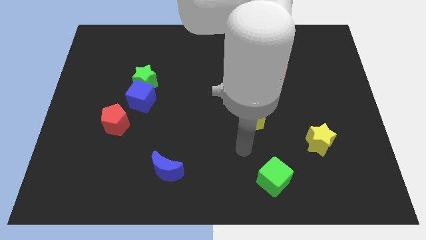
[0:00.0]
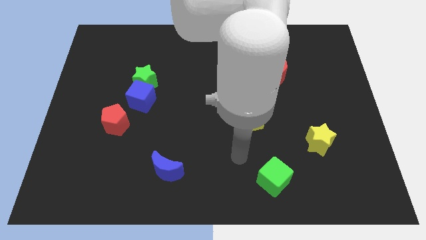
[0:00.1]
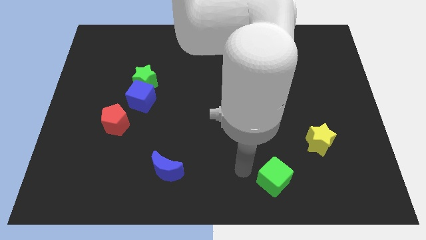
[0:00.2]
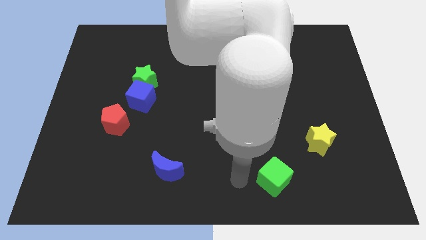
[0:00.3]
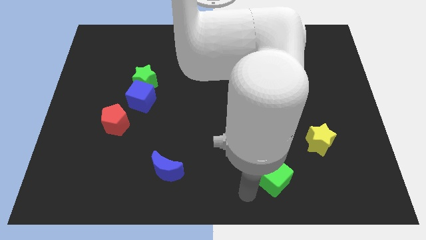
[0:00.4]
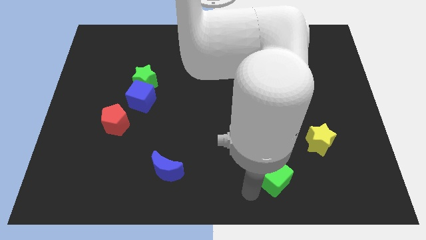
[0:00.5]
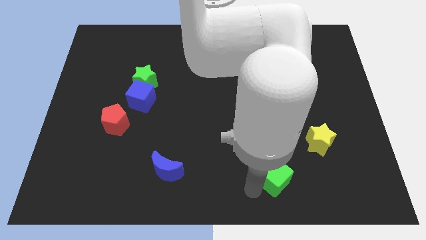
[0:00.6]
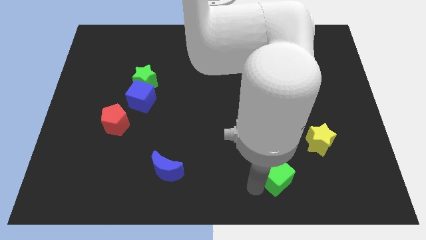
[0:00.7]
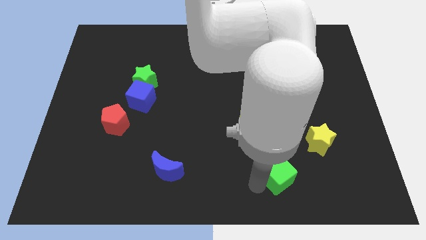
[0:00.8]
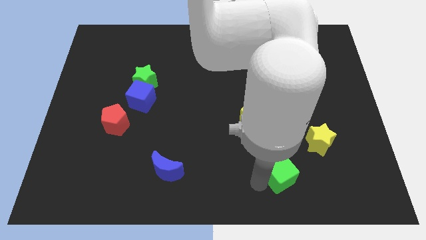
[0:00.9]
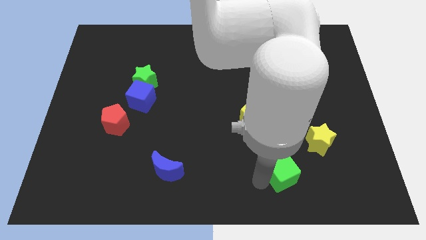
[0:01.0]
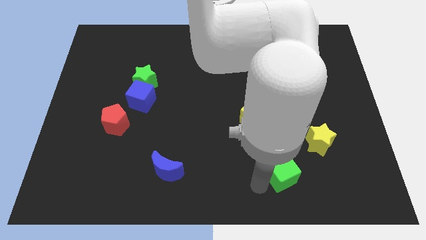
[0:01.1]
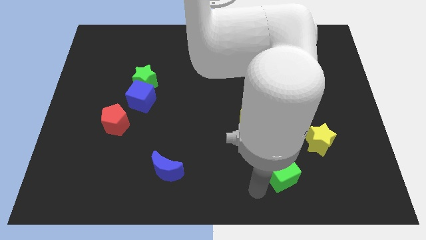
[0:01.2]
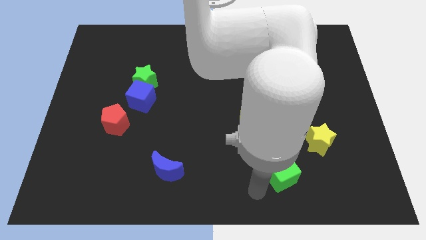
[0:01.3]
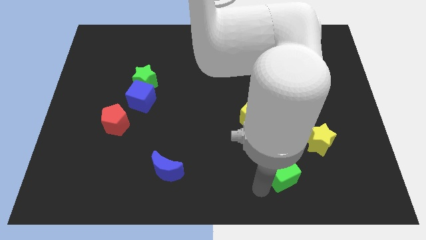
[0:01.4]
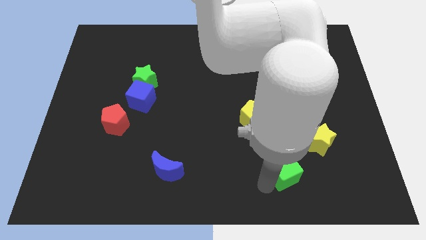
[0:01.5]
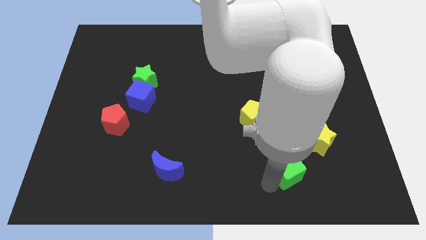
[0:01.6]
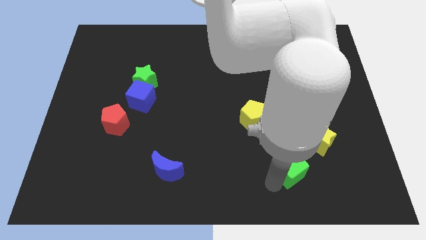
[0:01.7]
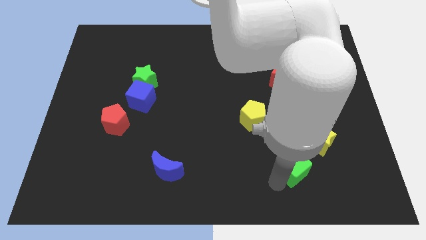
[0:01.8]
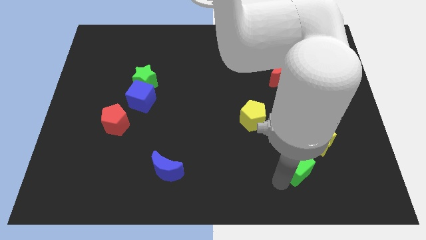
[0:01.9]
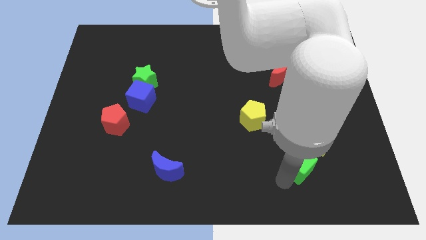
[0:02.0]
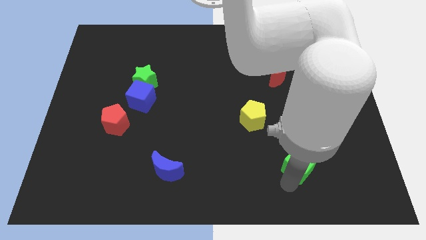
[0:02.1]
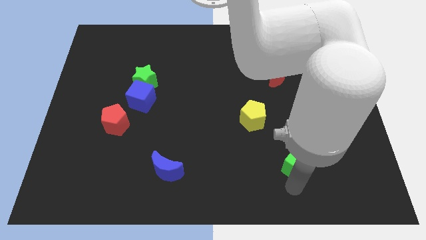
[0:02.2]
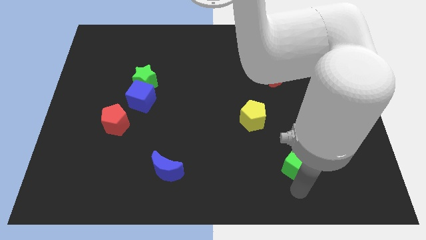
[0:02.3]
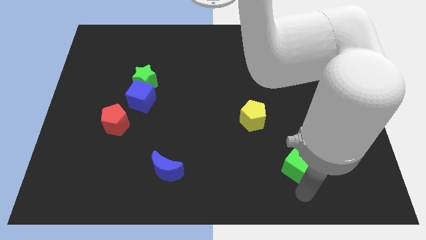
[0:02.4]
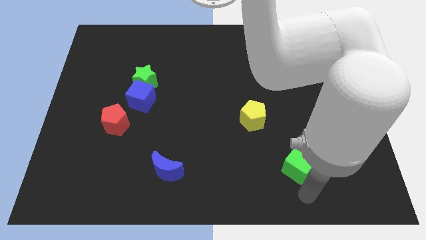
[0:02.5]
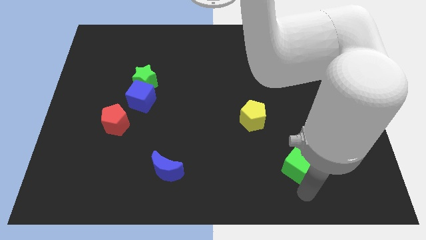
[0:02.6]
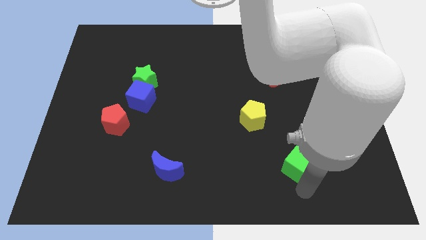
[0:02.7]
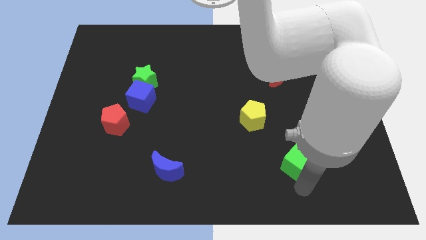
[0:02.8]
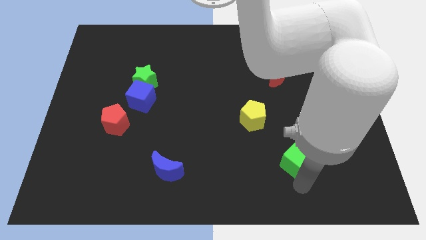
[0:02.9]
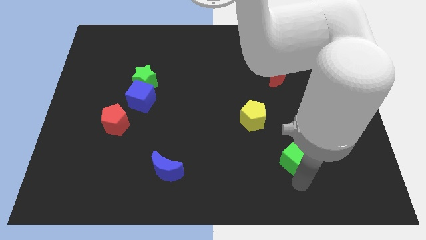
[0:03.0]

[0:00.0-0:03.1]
slide the green cube slightly up and to the right diagonally

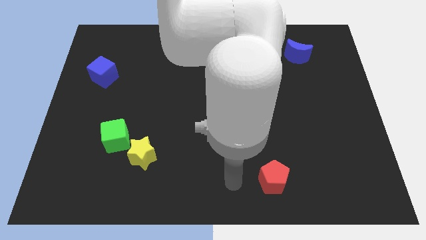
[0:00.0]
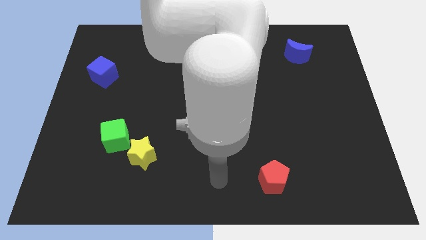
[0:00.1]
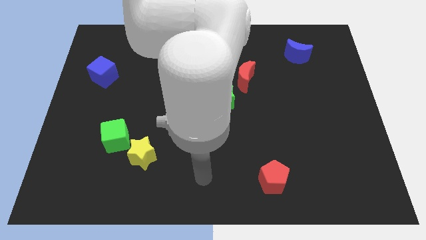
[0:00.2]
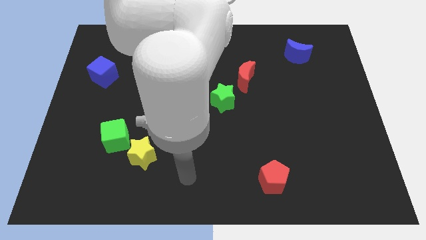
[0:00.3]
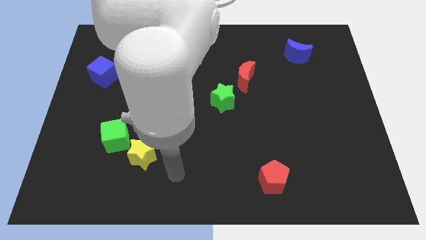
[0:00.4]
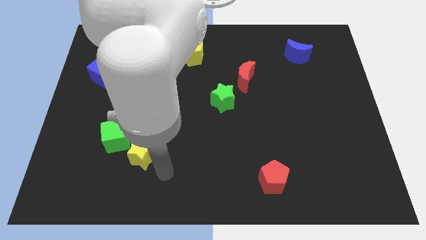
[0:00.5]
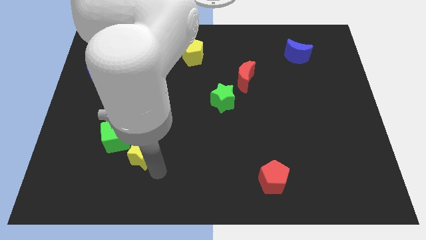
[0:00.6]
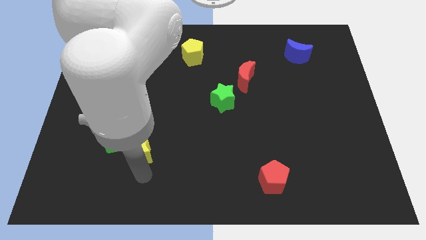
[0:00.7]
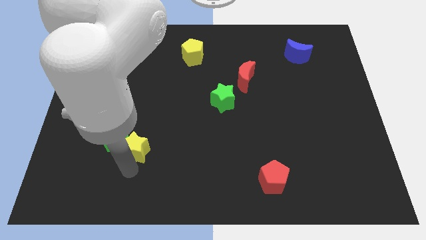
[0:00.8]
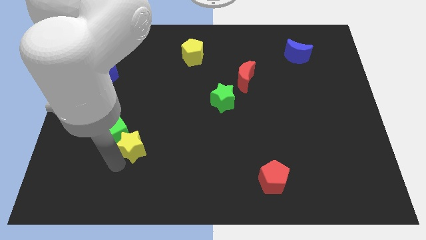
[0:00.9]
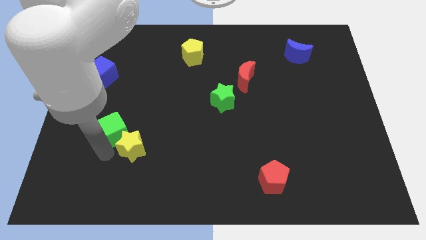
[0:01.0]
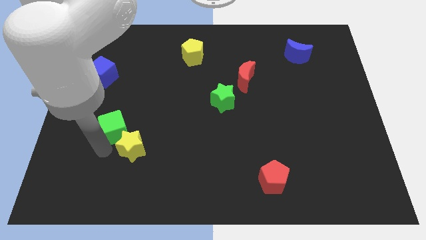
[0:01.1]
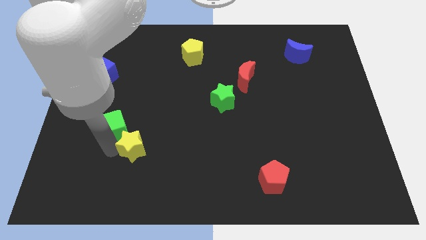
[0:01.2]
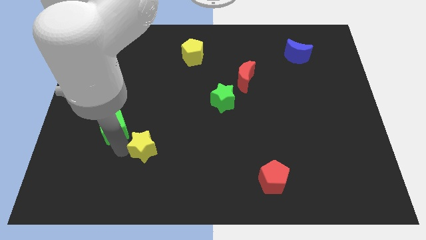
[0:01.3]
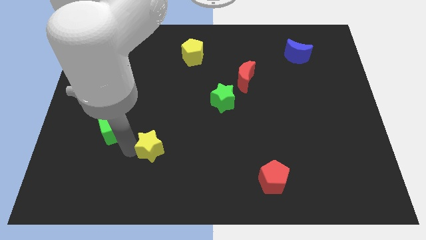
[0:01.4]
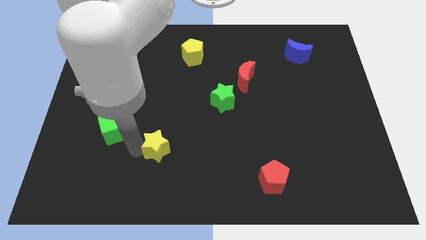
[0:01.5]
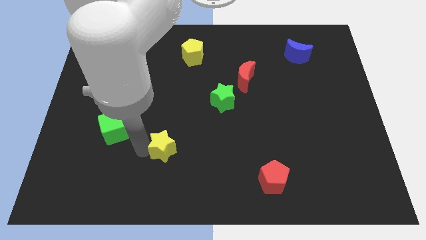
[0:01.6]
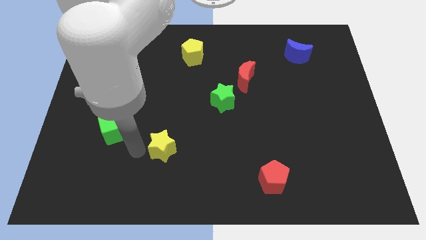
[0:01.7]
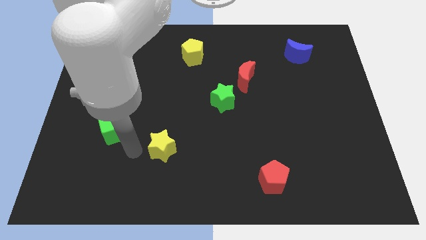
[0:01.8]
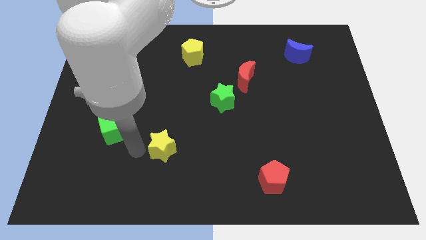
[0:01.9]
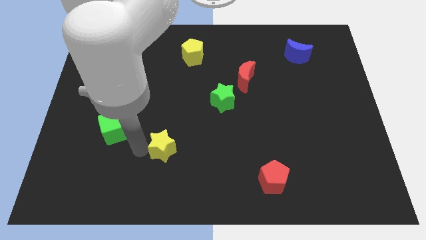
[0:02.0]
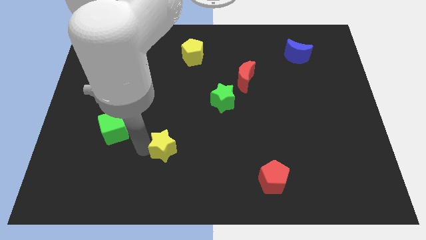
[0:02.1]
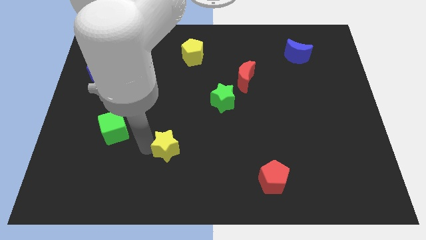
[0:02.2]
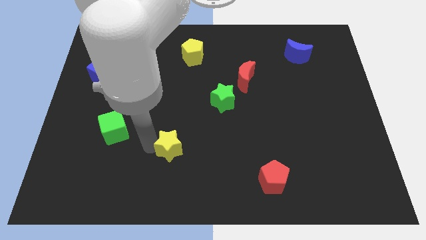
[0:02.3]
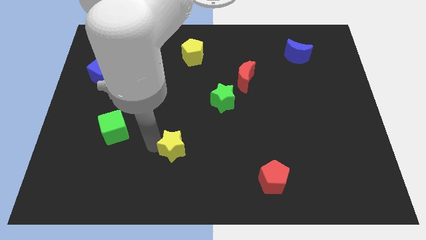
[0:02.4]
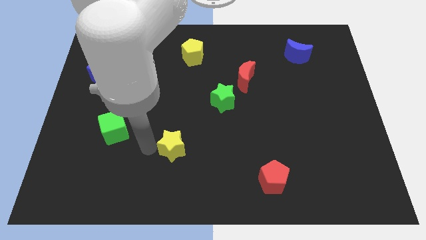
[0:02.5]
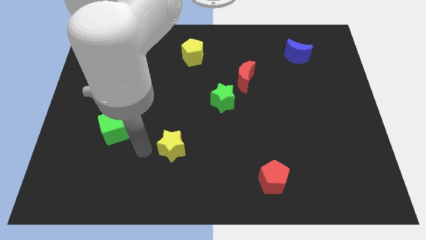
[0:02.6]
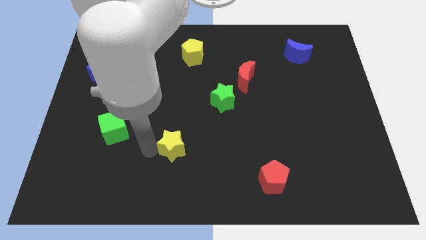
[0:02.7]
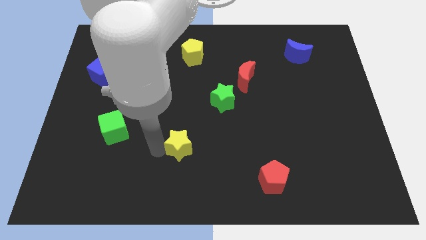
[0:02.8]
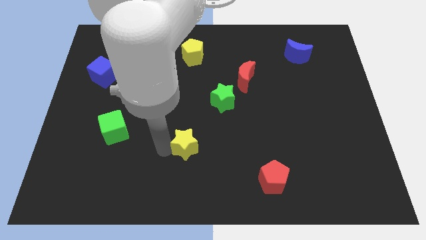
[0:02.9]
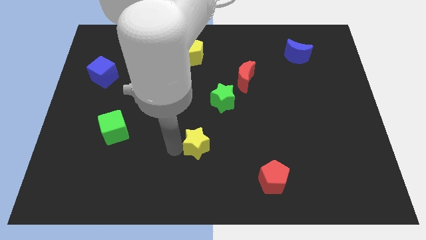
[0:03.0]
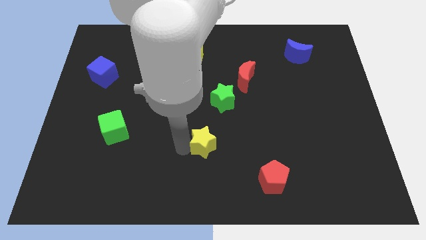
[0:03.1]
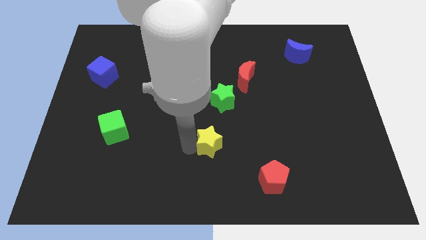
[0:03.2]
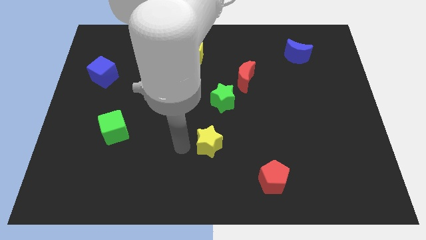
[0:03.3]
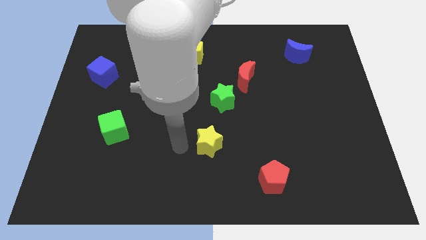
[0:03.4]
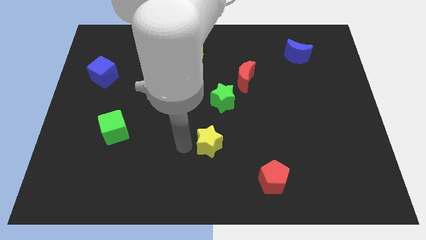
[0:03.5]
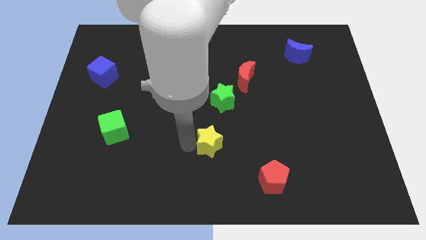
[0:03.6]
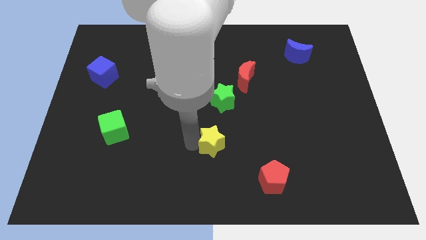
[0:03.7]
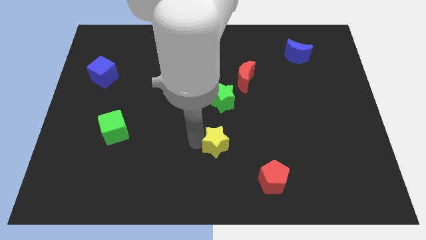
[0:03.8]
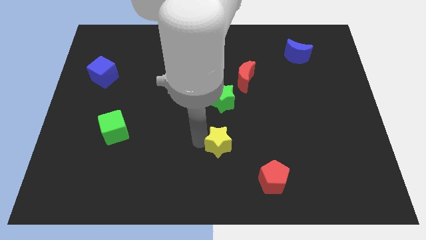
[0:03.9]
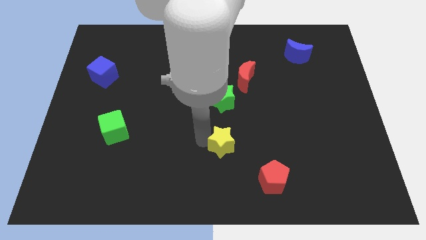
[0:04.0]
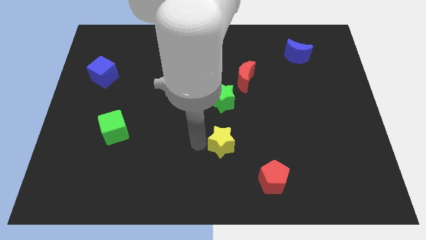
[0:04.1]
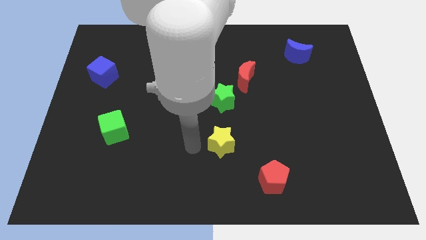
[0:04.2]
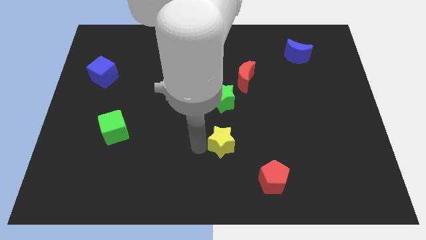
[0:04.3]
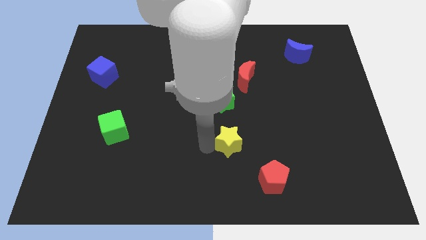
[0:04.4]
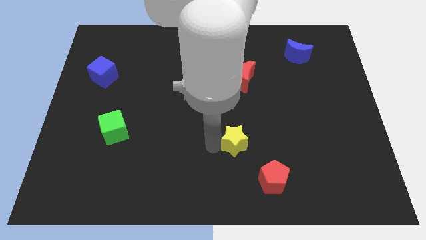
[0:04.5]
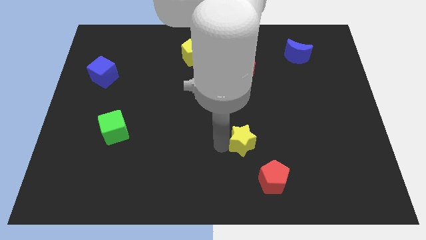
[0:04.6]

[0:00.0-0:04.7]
push the yellow star to the right
